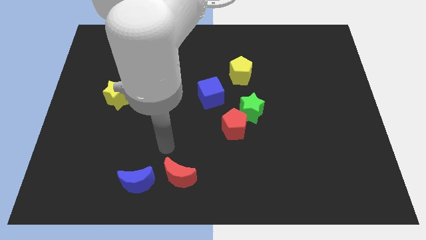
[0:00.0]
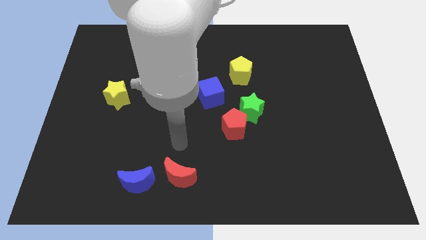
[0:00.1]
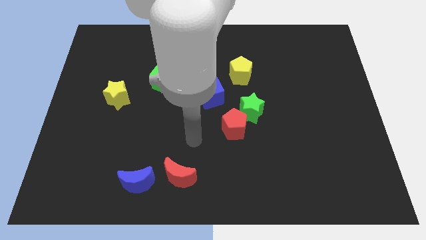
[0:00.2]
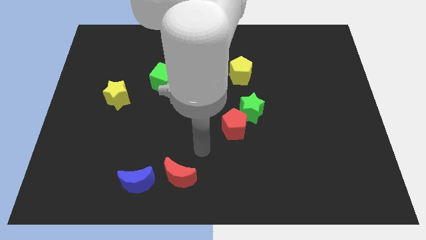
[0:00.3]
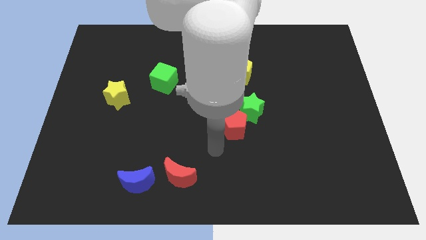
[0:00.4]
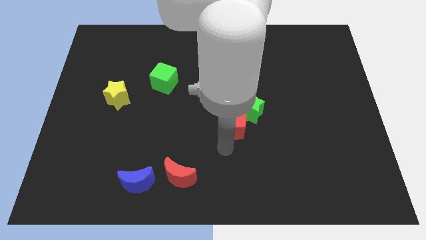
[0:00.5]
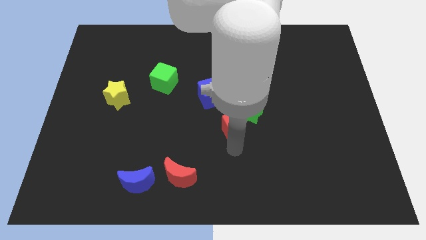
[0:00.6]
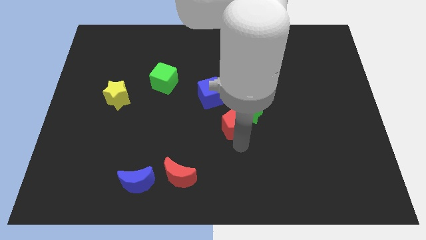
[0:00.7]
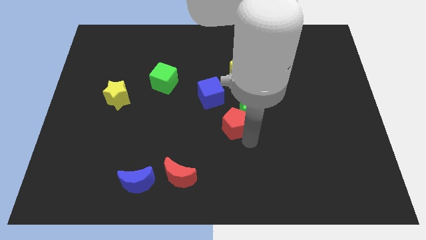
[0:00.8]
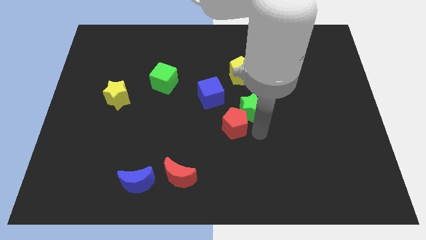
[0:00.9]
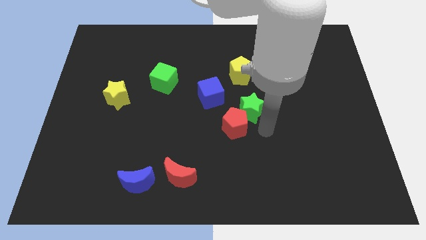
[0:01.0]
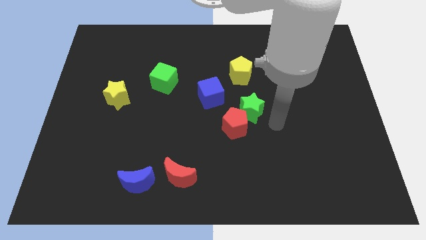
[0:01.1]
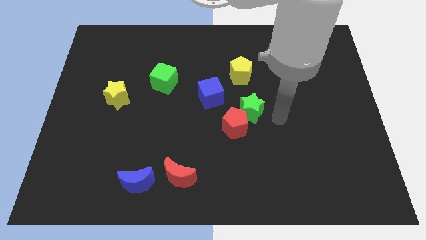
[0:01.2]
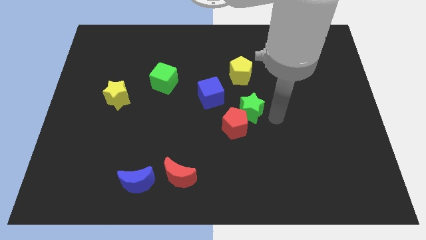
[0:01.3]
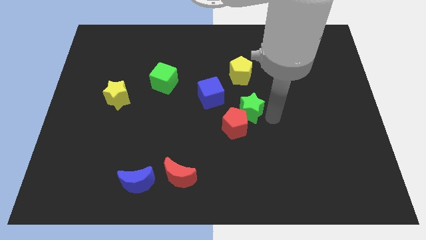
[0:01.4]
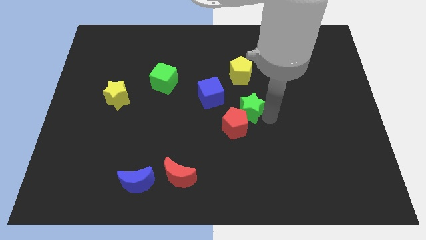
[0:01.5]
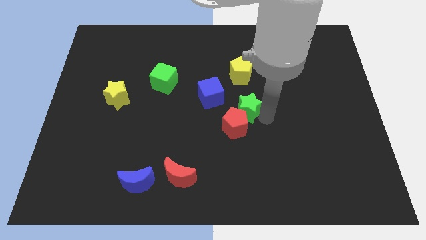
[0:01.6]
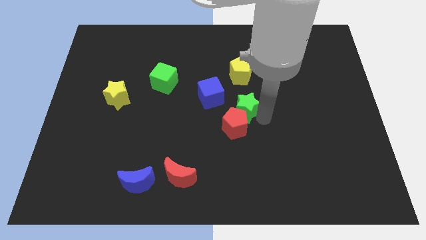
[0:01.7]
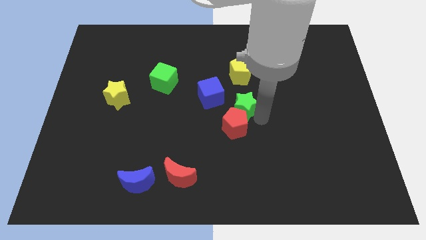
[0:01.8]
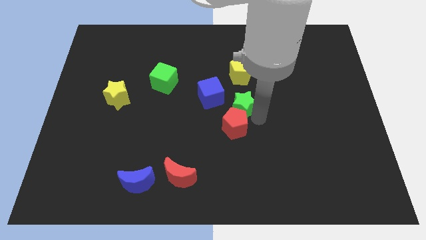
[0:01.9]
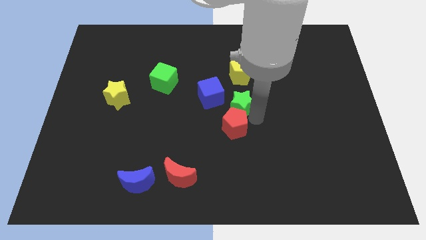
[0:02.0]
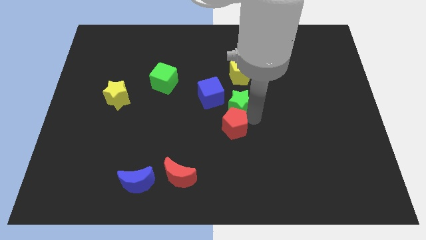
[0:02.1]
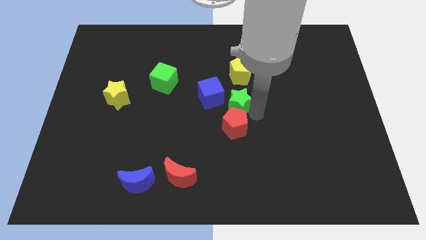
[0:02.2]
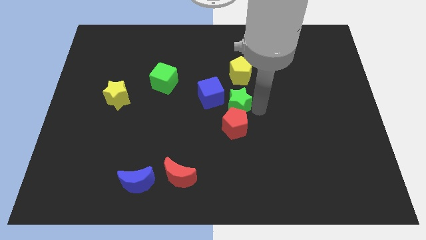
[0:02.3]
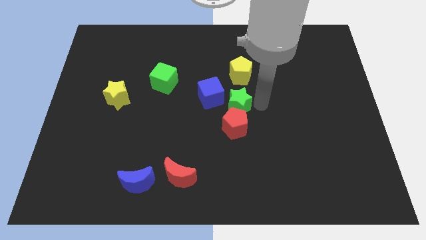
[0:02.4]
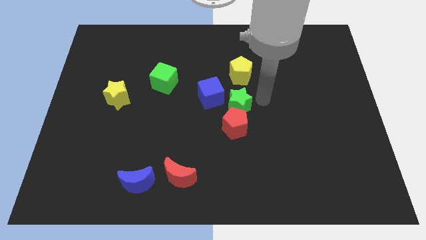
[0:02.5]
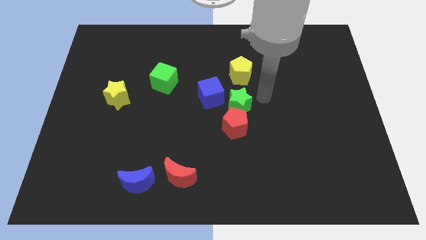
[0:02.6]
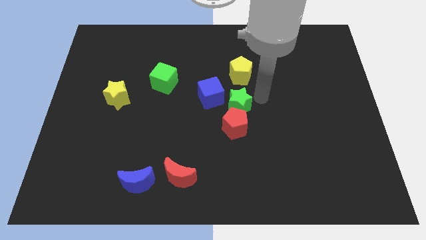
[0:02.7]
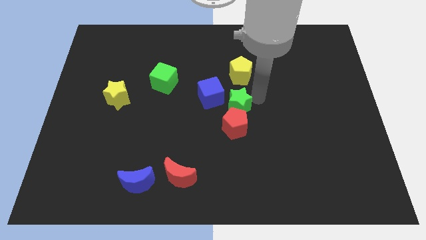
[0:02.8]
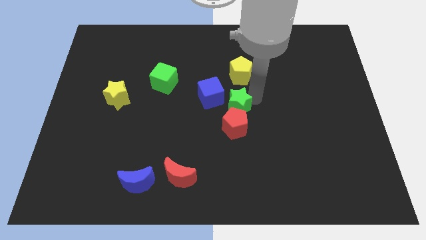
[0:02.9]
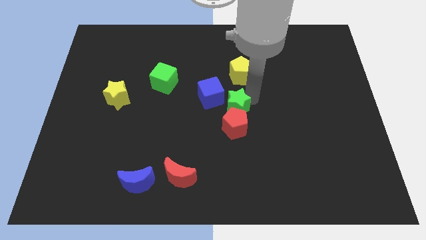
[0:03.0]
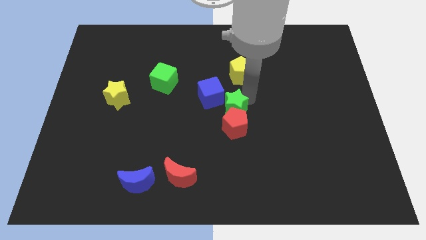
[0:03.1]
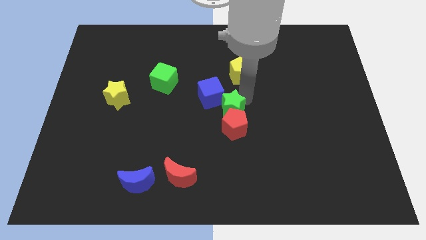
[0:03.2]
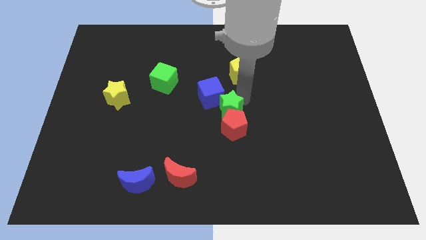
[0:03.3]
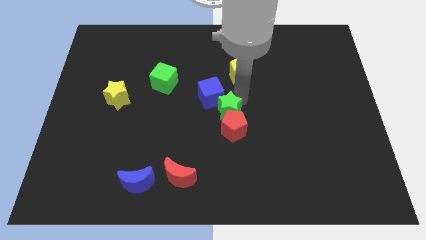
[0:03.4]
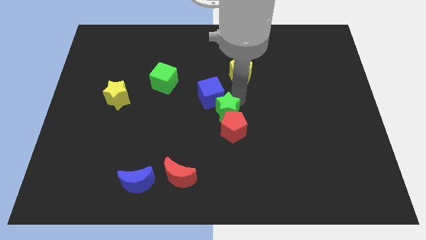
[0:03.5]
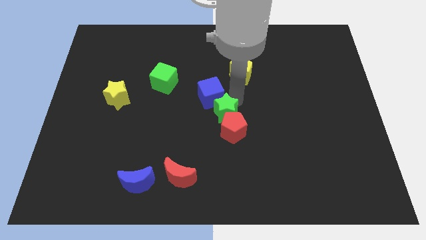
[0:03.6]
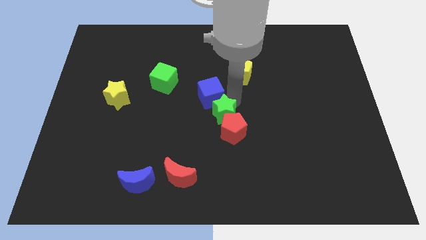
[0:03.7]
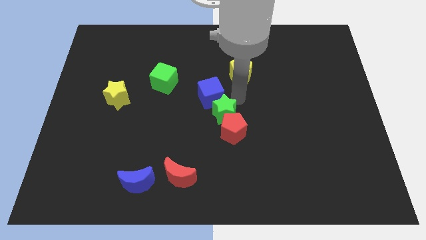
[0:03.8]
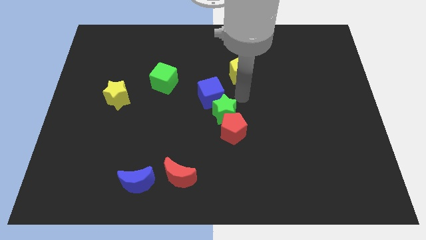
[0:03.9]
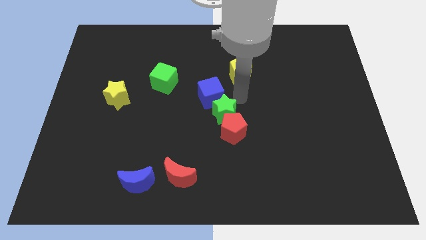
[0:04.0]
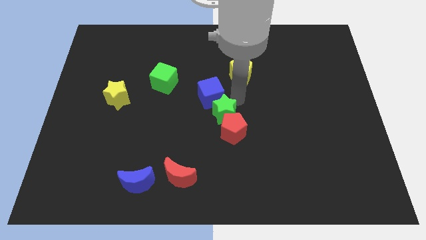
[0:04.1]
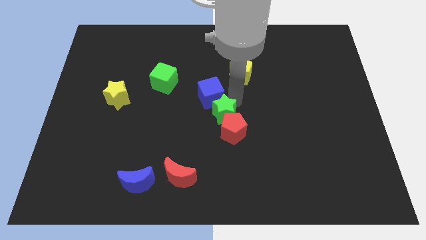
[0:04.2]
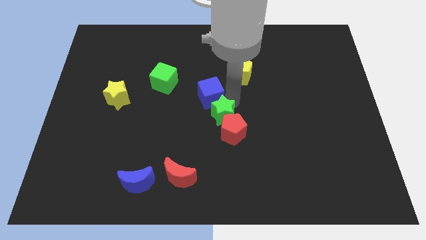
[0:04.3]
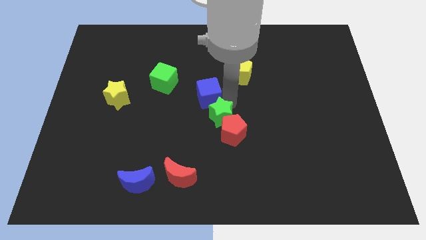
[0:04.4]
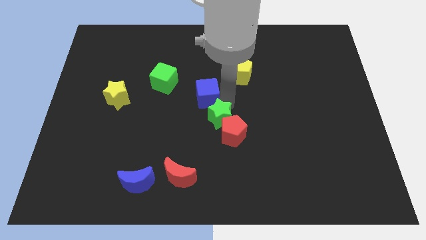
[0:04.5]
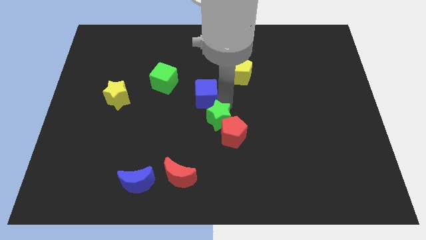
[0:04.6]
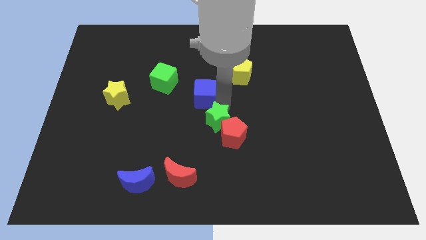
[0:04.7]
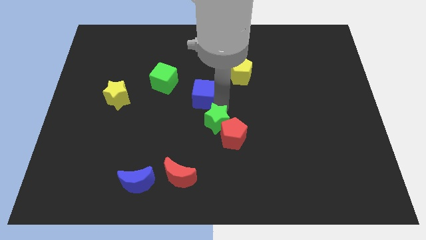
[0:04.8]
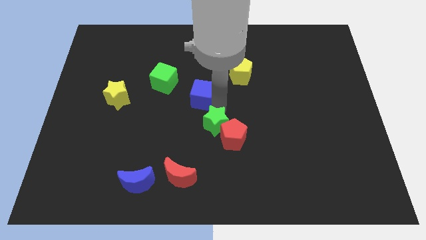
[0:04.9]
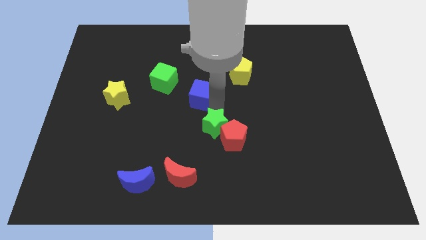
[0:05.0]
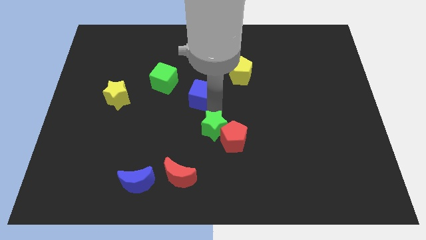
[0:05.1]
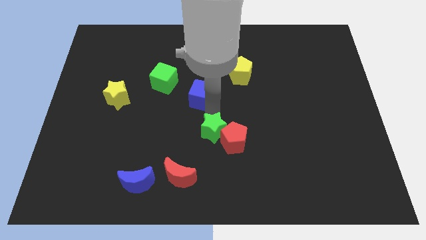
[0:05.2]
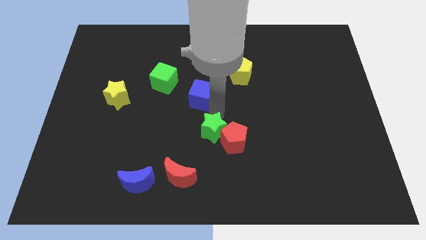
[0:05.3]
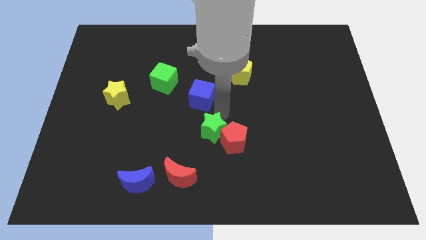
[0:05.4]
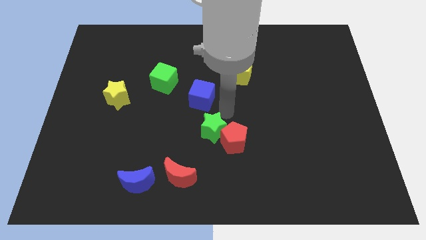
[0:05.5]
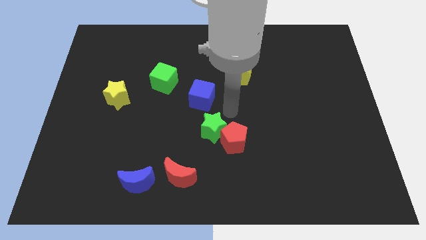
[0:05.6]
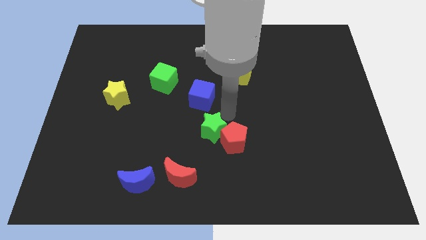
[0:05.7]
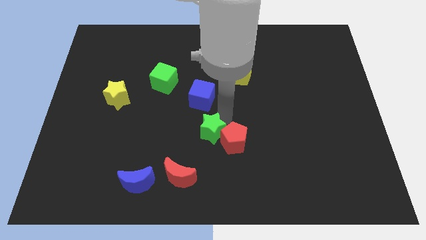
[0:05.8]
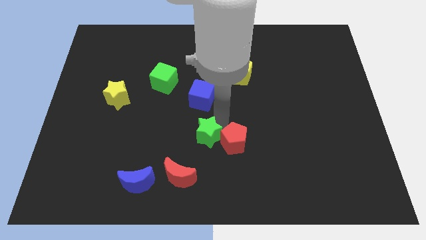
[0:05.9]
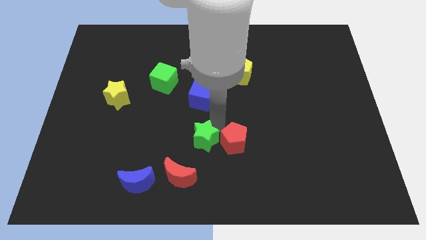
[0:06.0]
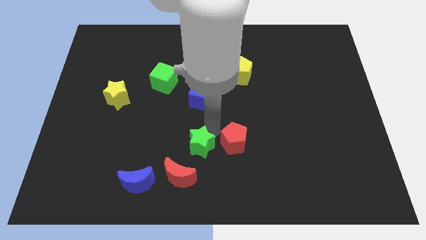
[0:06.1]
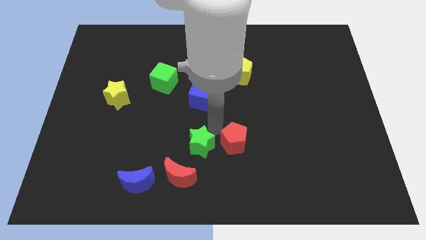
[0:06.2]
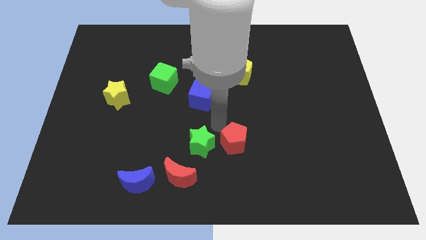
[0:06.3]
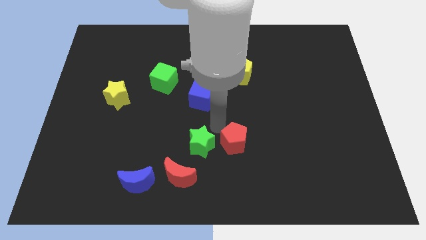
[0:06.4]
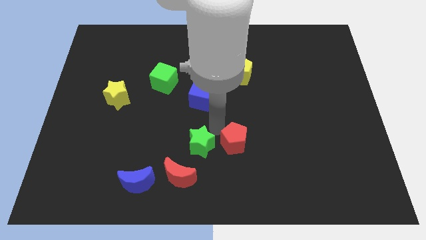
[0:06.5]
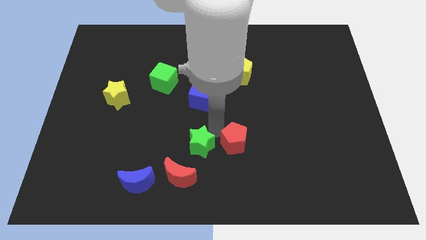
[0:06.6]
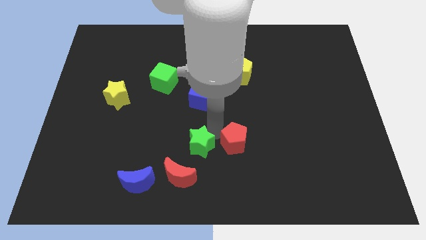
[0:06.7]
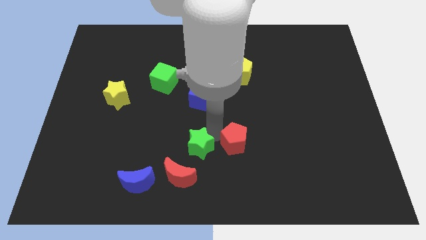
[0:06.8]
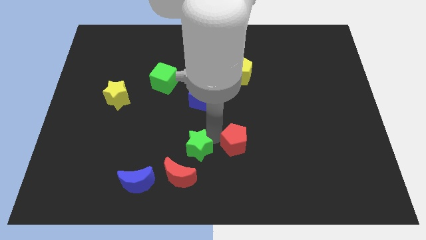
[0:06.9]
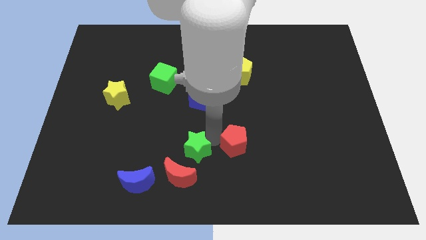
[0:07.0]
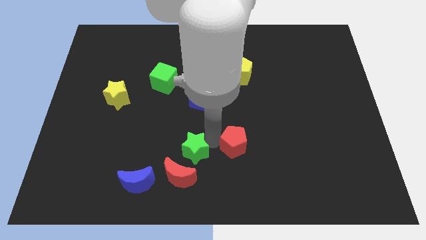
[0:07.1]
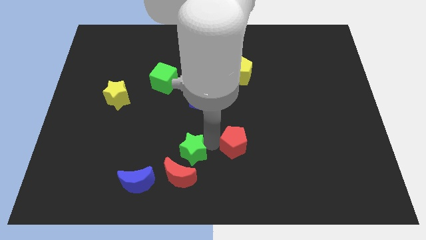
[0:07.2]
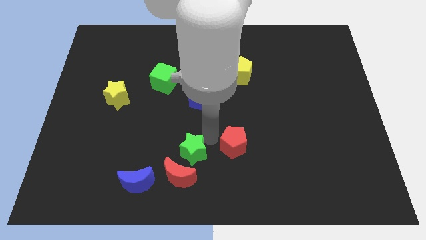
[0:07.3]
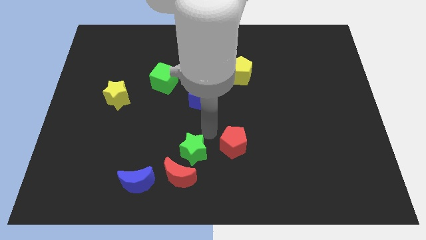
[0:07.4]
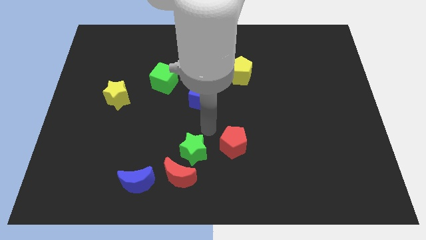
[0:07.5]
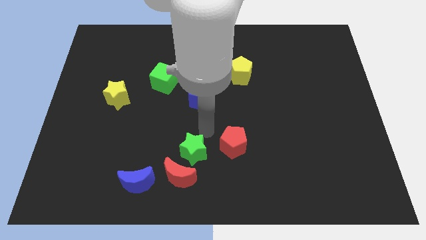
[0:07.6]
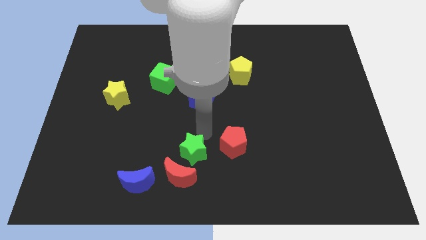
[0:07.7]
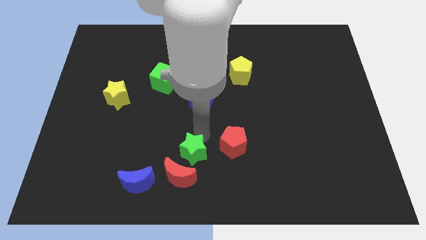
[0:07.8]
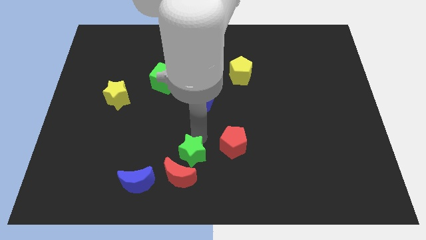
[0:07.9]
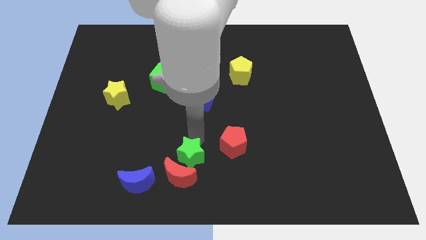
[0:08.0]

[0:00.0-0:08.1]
slide the green star to the red moon
